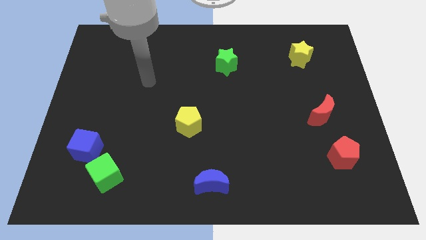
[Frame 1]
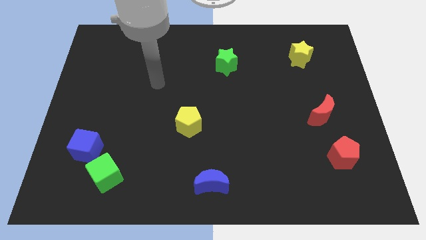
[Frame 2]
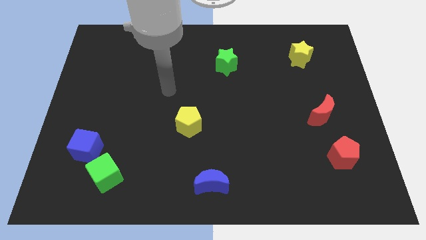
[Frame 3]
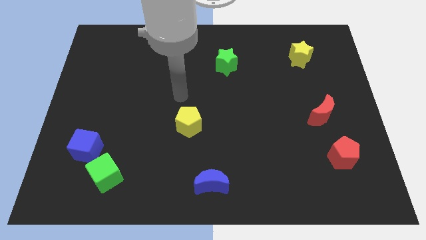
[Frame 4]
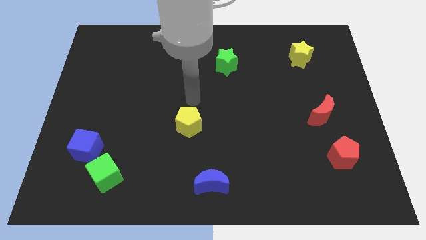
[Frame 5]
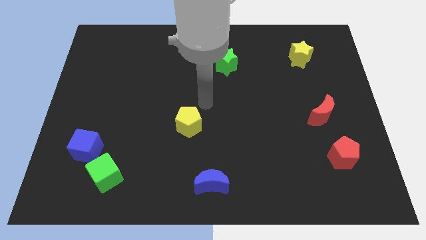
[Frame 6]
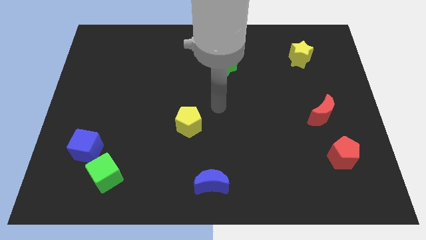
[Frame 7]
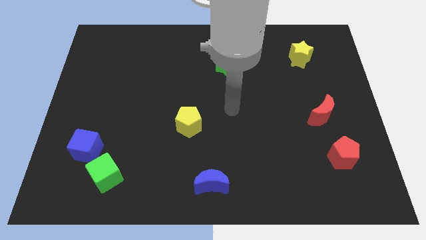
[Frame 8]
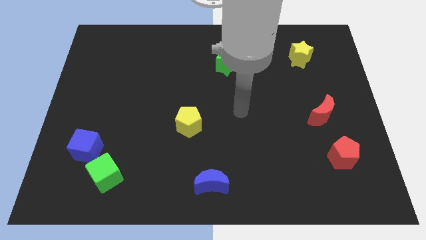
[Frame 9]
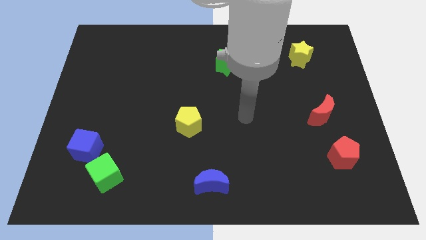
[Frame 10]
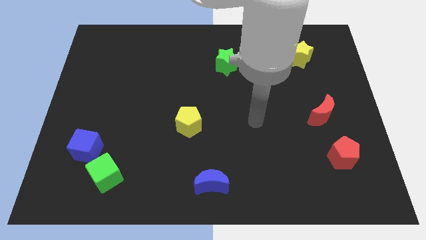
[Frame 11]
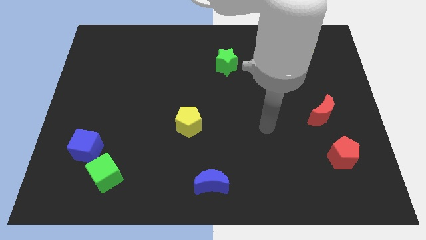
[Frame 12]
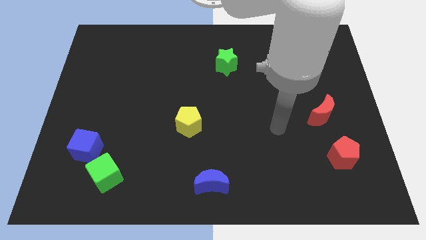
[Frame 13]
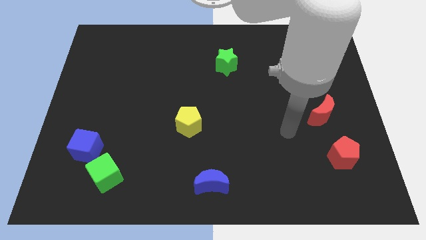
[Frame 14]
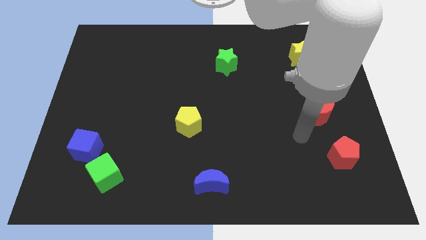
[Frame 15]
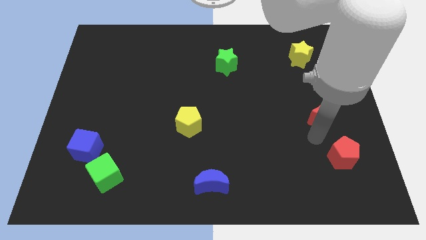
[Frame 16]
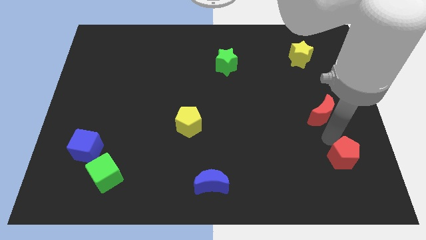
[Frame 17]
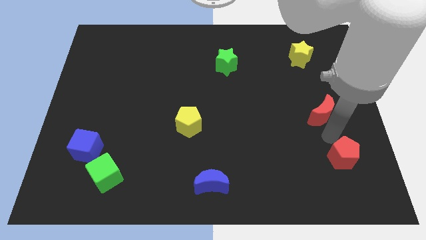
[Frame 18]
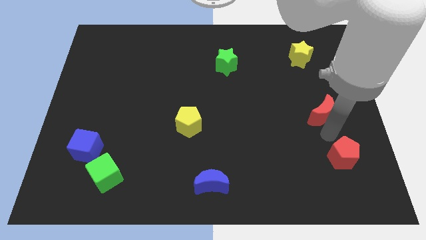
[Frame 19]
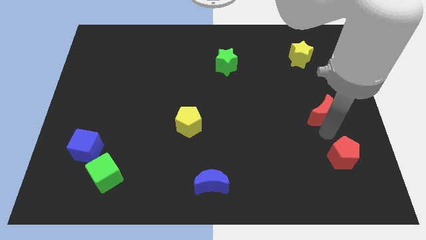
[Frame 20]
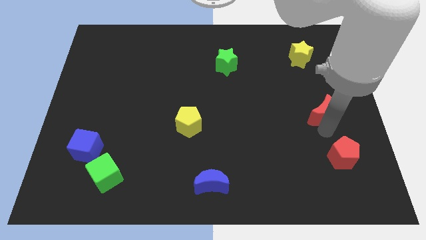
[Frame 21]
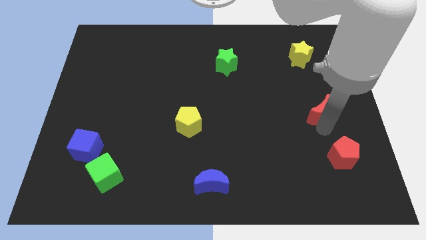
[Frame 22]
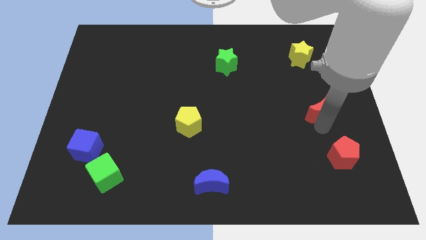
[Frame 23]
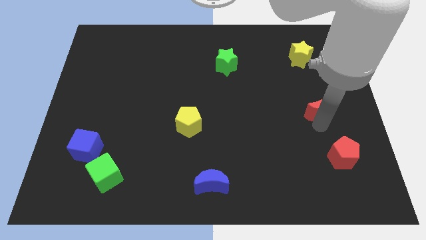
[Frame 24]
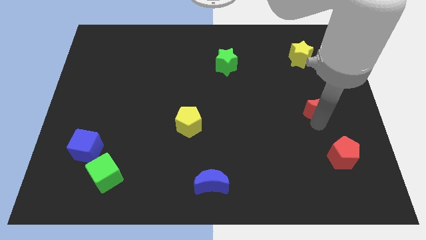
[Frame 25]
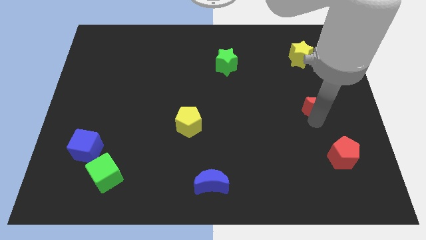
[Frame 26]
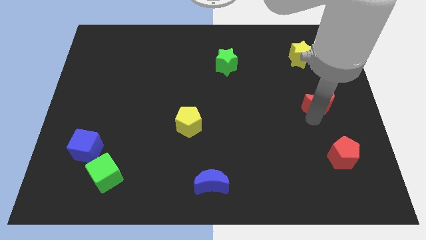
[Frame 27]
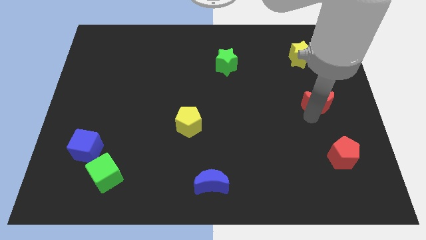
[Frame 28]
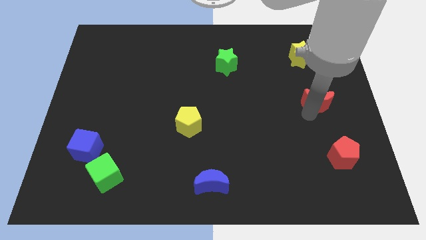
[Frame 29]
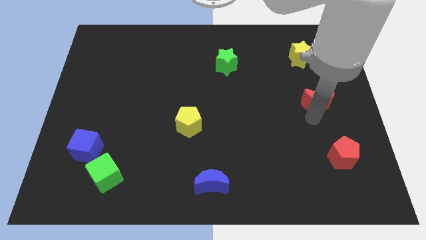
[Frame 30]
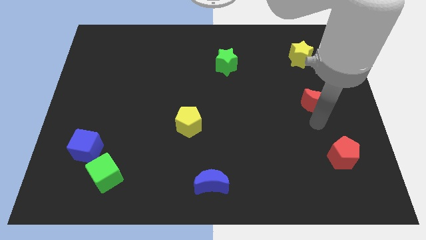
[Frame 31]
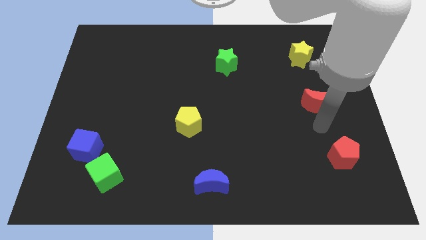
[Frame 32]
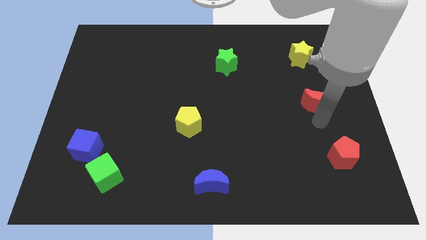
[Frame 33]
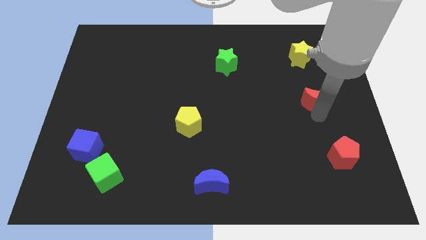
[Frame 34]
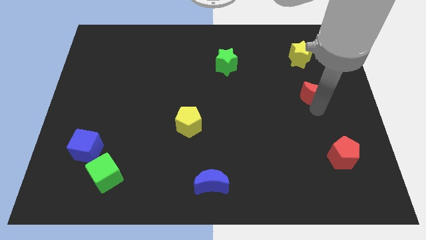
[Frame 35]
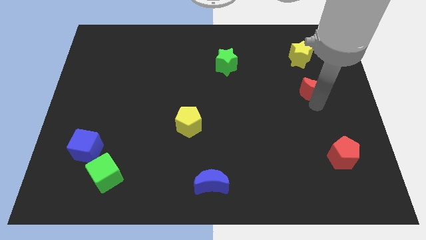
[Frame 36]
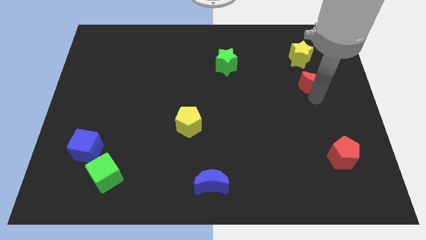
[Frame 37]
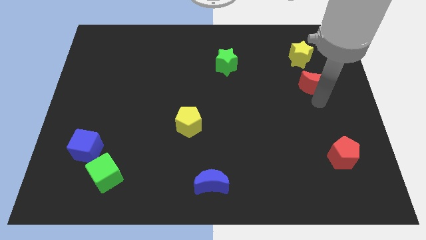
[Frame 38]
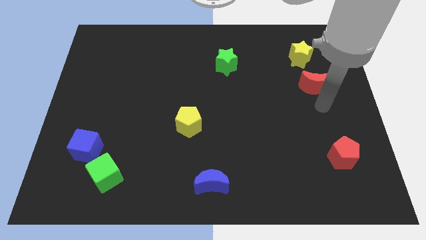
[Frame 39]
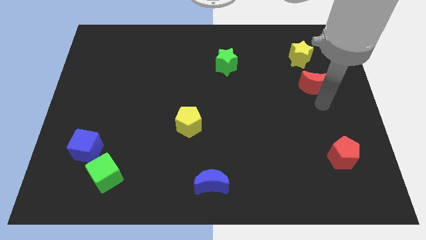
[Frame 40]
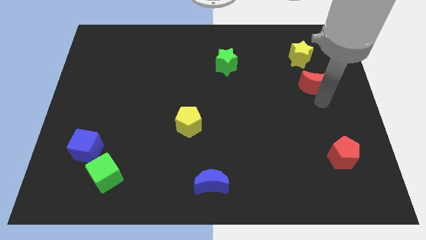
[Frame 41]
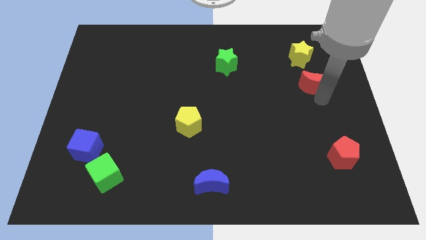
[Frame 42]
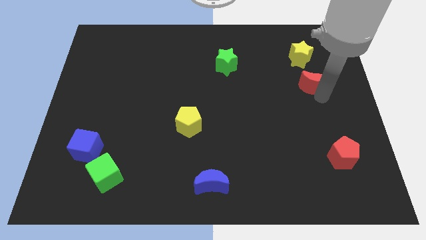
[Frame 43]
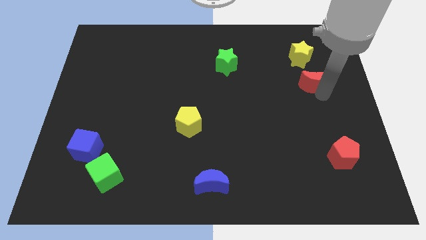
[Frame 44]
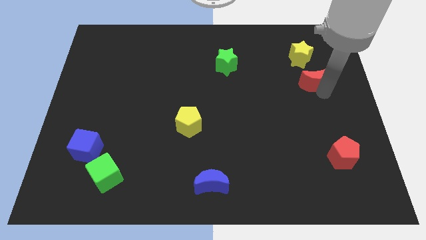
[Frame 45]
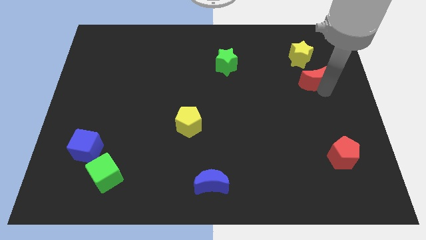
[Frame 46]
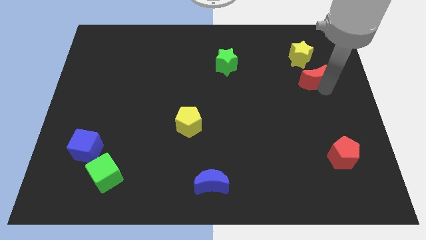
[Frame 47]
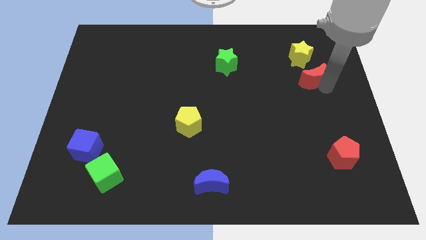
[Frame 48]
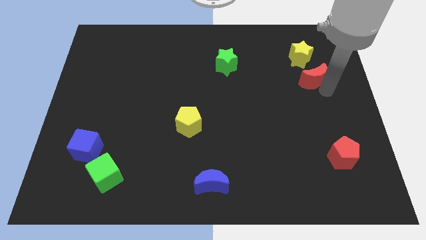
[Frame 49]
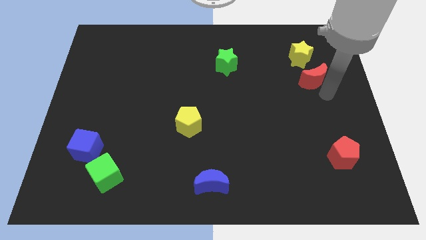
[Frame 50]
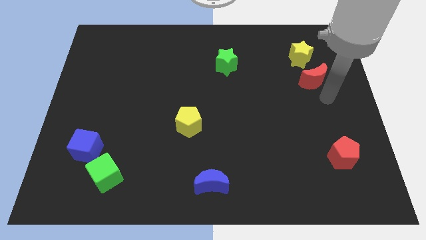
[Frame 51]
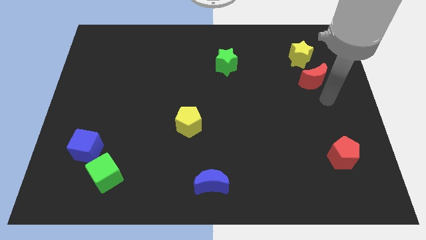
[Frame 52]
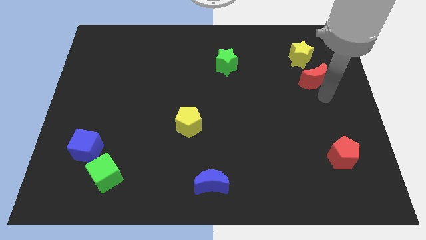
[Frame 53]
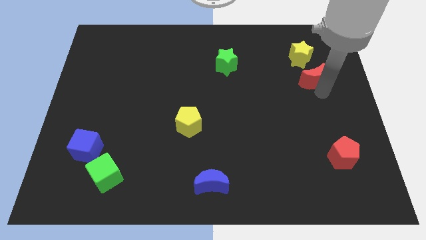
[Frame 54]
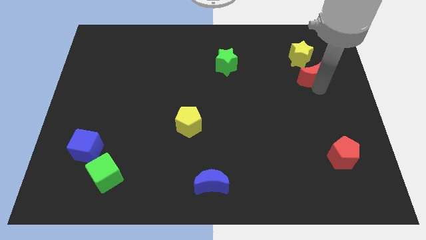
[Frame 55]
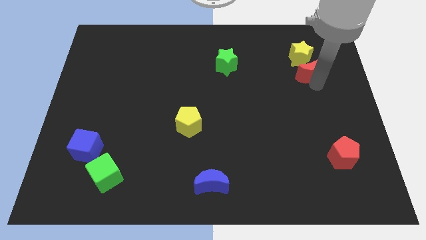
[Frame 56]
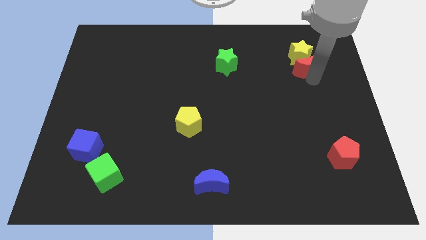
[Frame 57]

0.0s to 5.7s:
put the red moon close to the yellow star

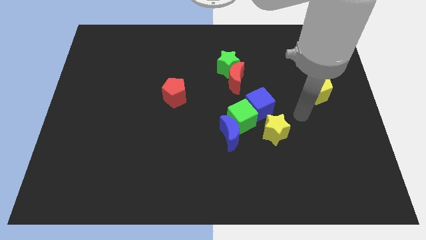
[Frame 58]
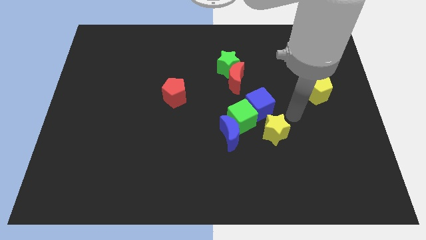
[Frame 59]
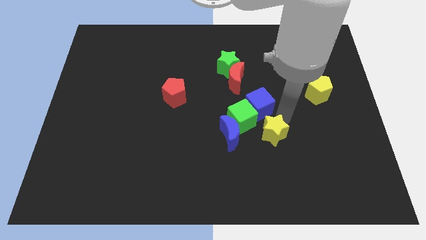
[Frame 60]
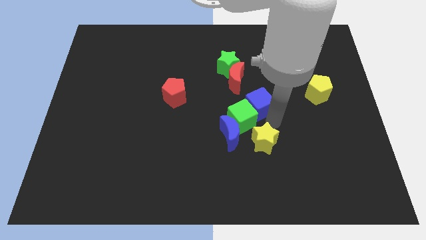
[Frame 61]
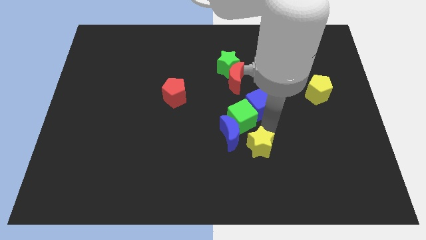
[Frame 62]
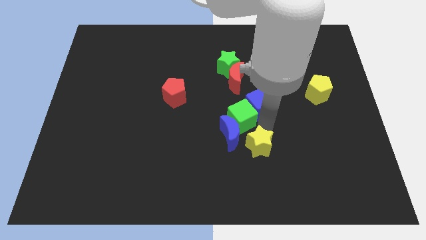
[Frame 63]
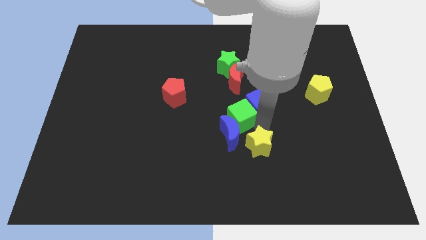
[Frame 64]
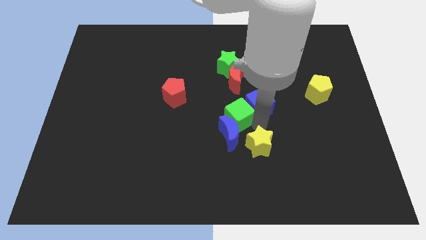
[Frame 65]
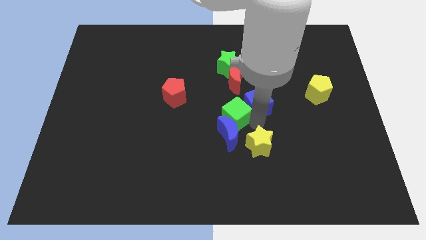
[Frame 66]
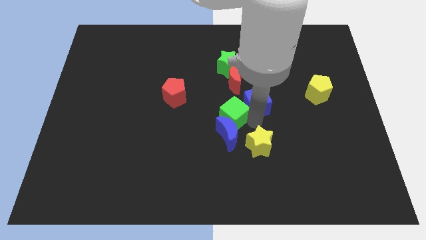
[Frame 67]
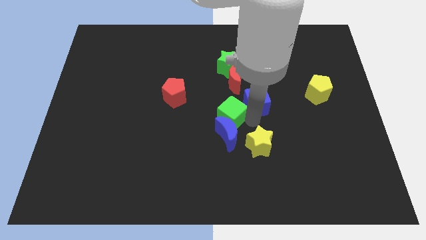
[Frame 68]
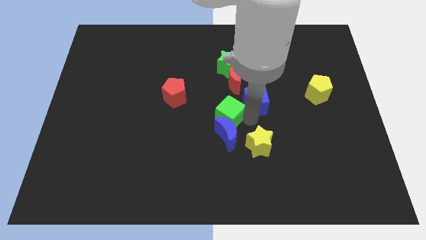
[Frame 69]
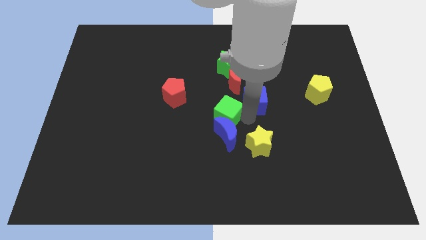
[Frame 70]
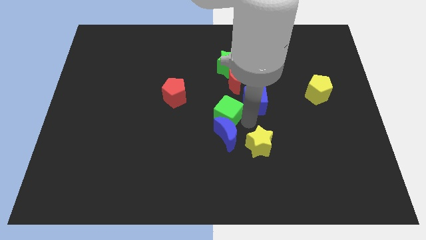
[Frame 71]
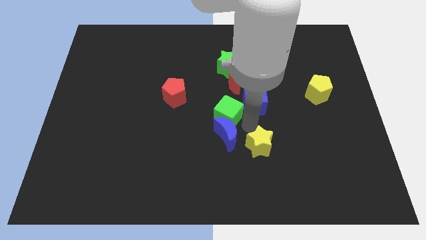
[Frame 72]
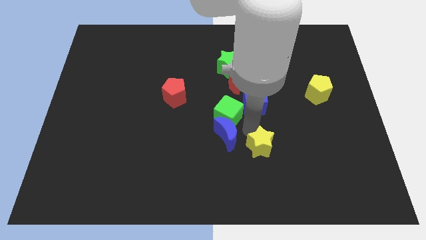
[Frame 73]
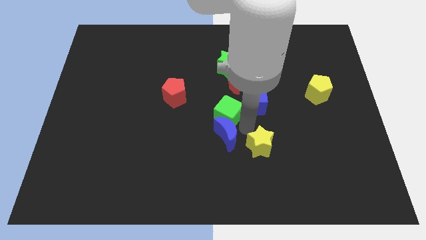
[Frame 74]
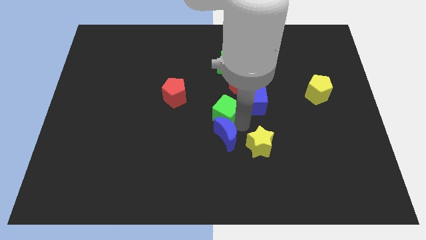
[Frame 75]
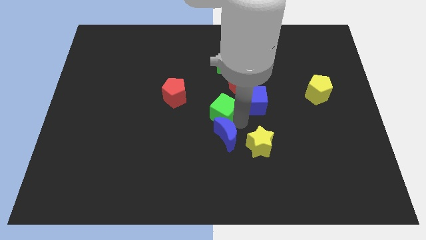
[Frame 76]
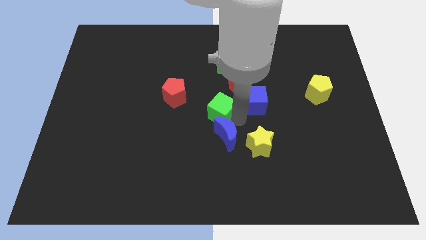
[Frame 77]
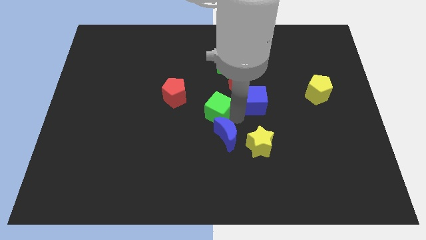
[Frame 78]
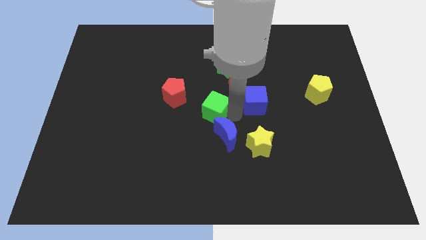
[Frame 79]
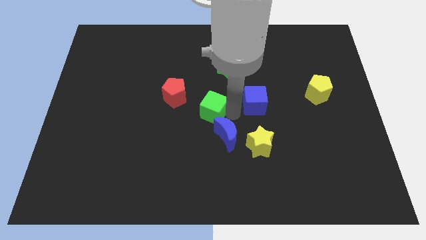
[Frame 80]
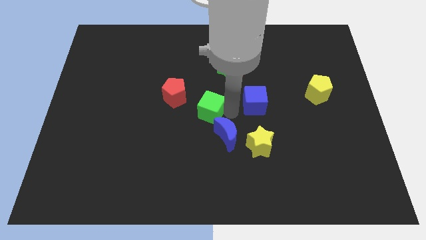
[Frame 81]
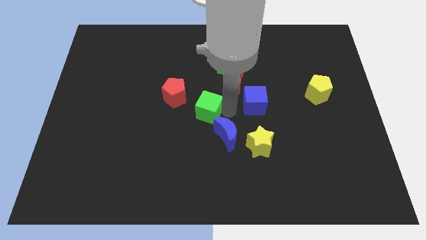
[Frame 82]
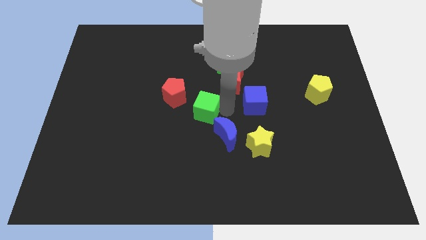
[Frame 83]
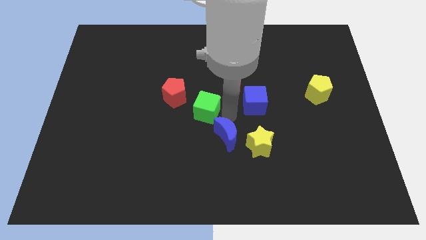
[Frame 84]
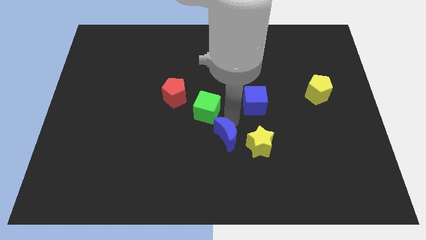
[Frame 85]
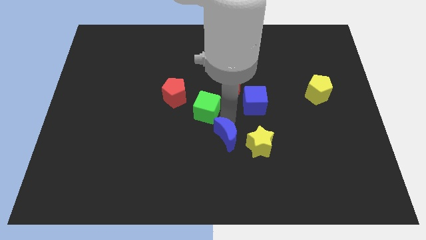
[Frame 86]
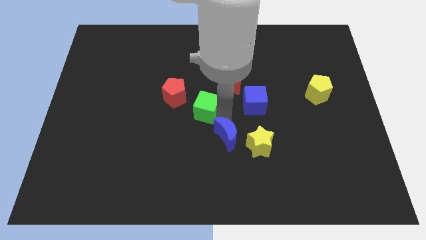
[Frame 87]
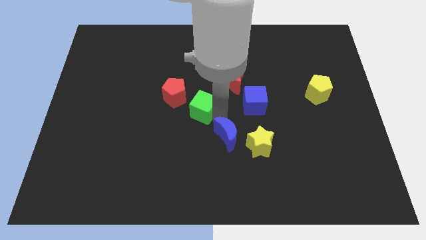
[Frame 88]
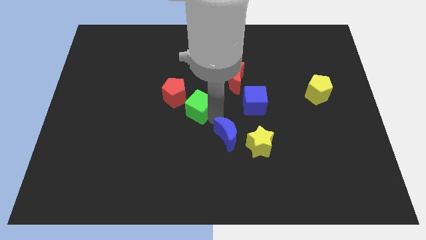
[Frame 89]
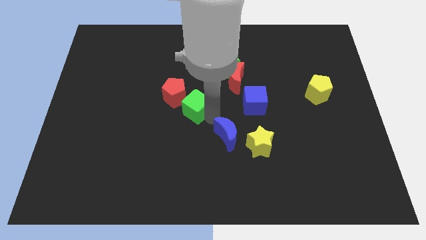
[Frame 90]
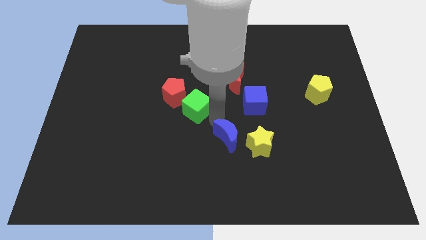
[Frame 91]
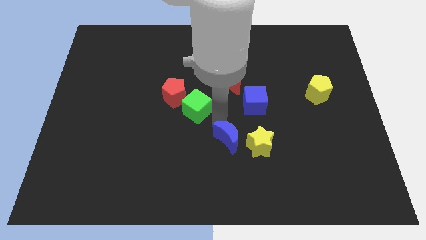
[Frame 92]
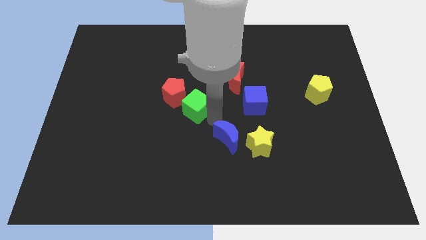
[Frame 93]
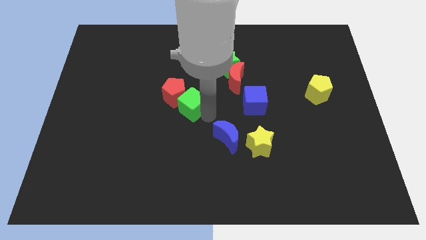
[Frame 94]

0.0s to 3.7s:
slide the green cube to the red pentagon
